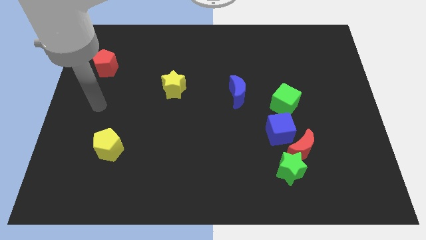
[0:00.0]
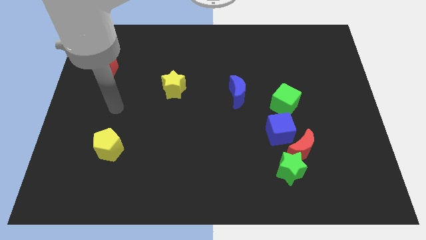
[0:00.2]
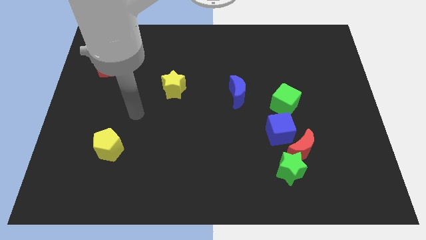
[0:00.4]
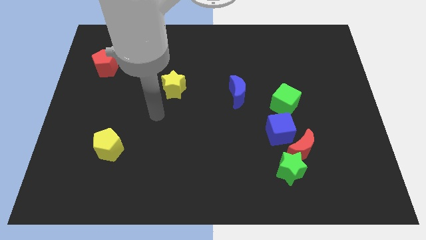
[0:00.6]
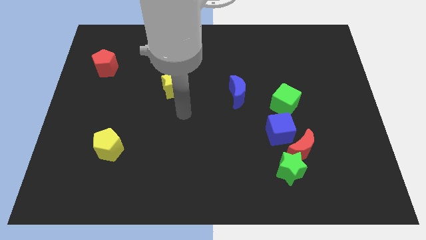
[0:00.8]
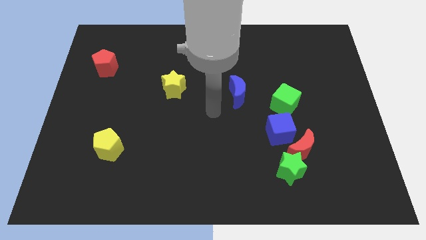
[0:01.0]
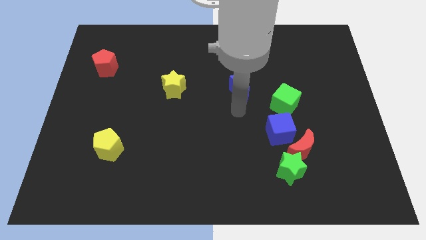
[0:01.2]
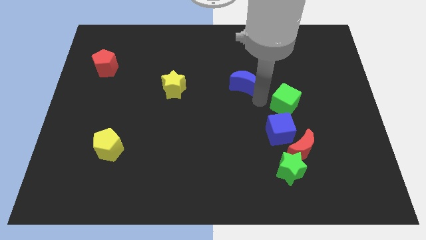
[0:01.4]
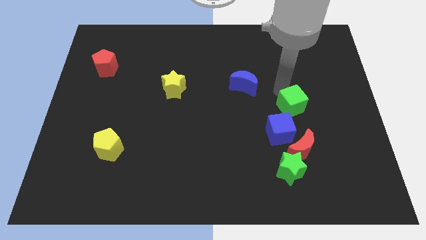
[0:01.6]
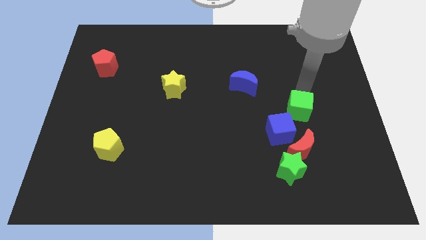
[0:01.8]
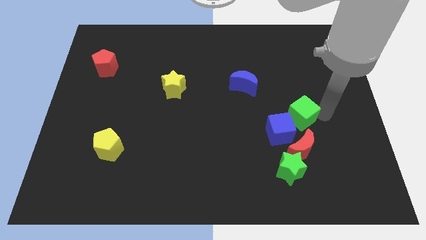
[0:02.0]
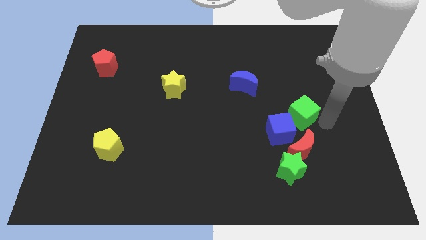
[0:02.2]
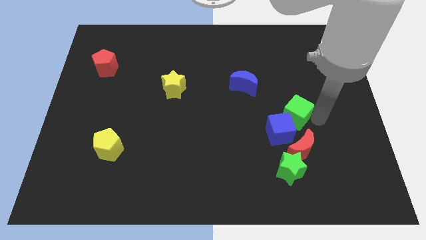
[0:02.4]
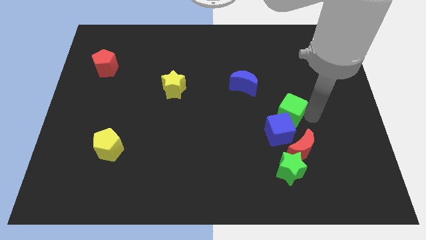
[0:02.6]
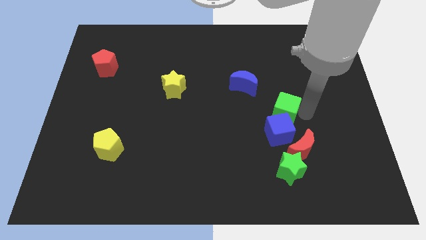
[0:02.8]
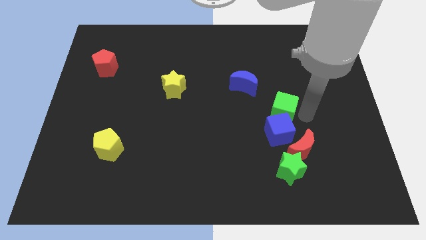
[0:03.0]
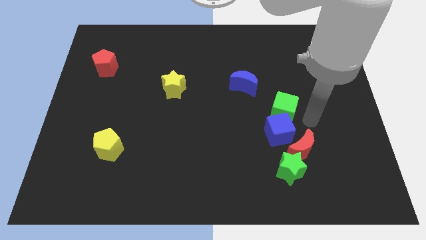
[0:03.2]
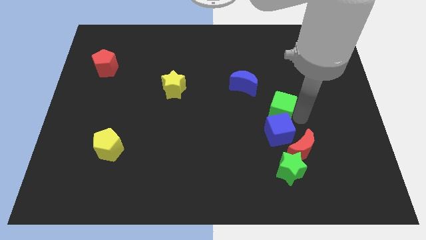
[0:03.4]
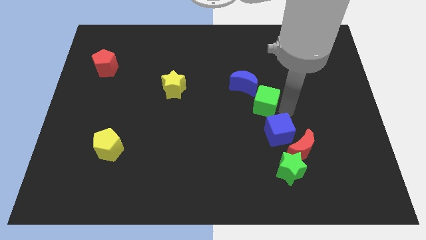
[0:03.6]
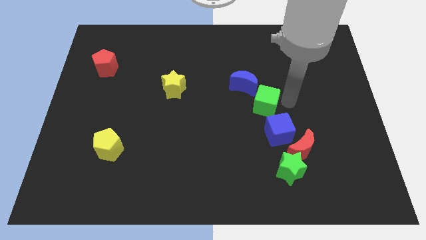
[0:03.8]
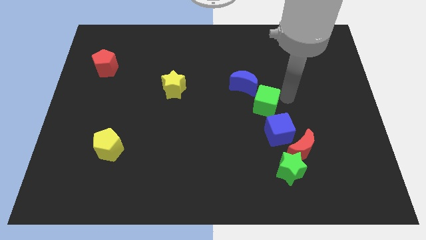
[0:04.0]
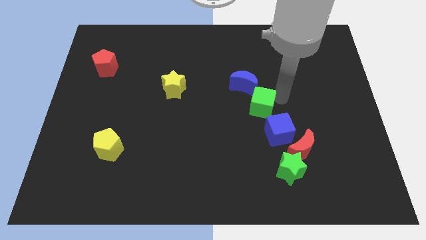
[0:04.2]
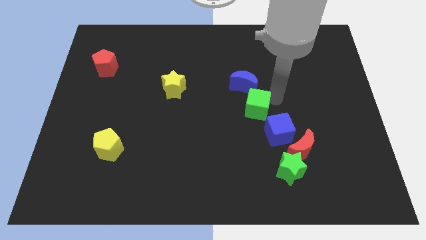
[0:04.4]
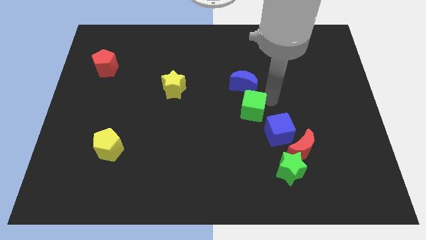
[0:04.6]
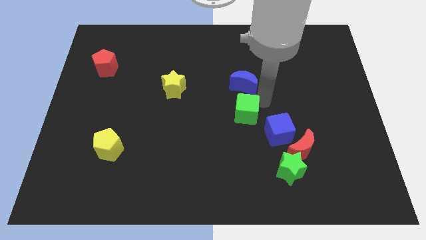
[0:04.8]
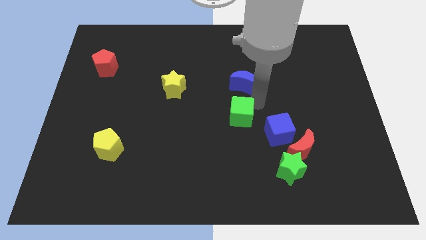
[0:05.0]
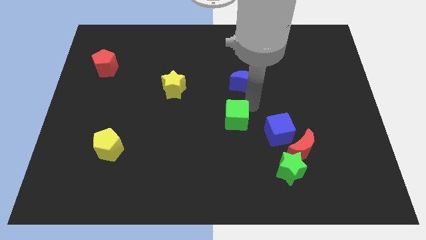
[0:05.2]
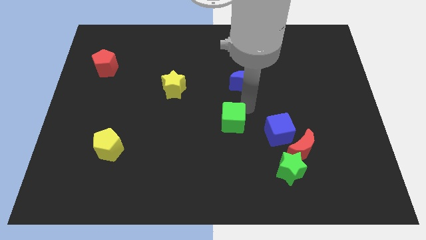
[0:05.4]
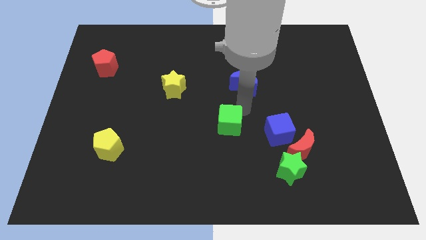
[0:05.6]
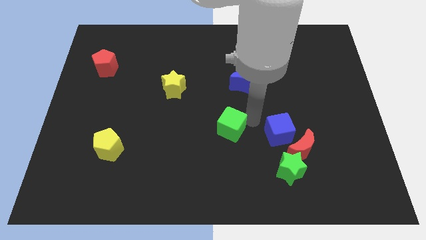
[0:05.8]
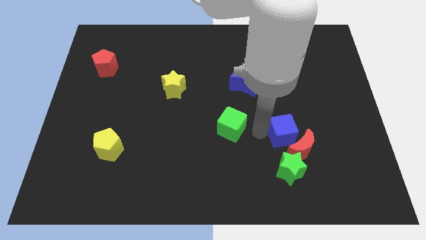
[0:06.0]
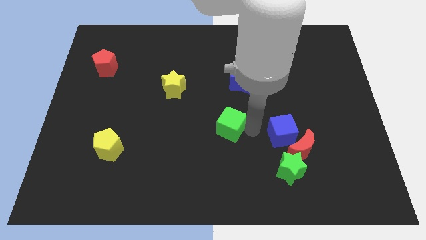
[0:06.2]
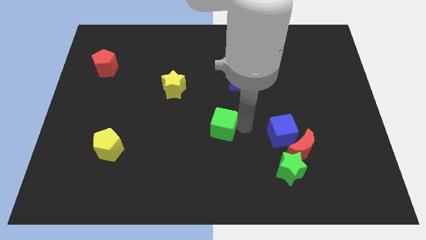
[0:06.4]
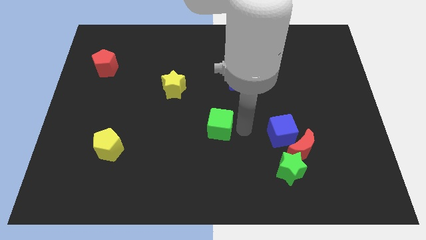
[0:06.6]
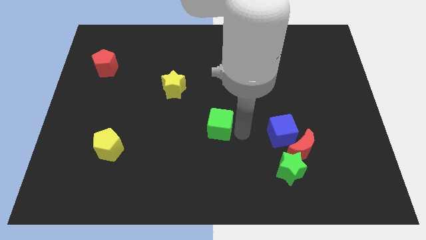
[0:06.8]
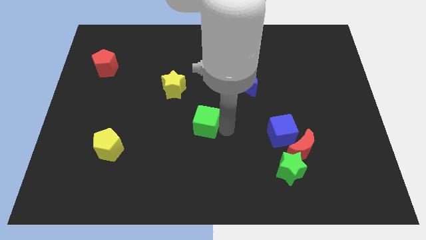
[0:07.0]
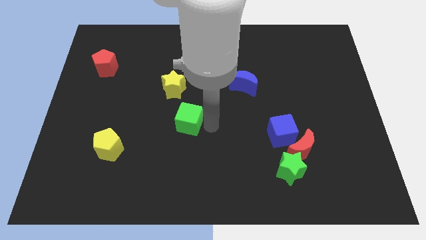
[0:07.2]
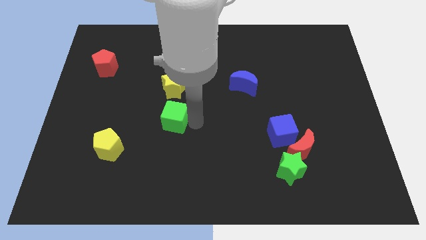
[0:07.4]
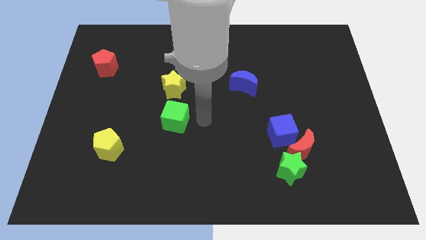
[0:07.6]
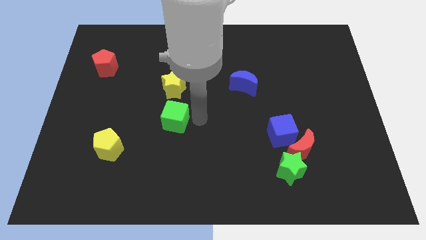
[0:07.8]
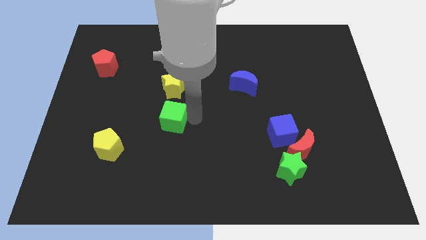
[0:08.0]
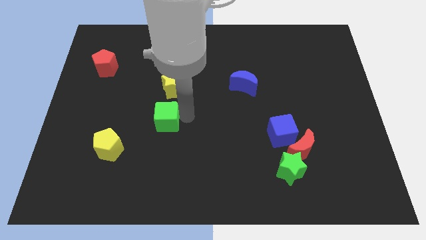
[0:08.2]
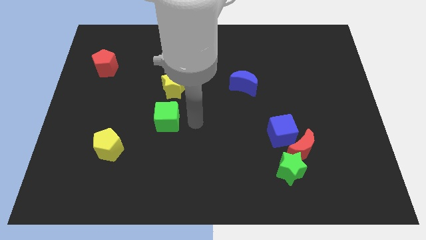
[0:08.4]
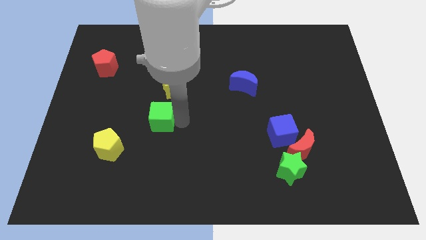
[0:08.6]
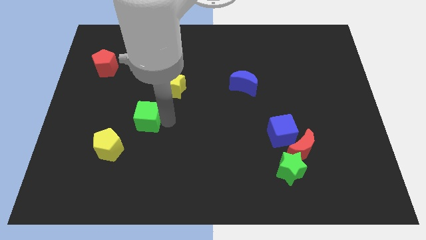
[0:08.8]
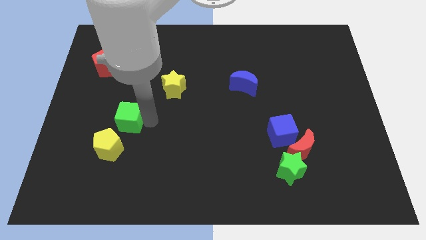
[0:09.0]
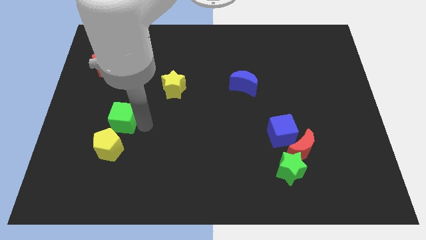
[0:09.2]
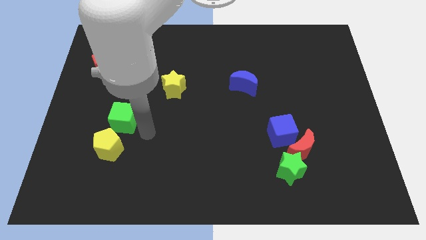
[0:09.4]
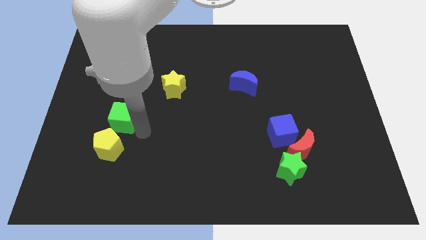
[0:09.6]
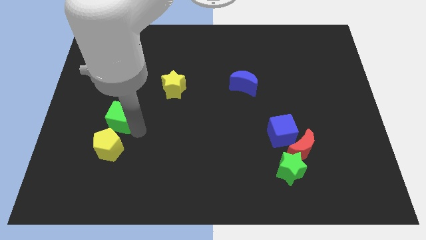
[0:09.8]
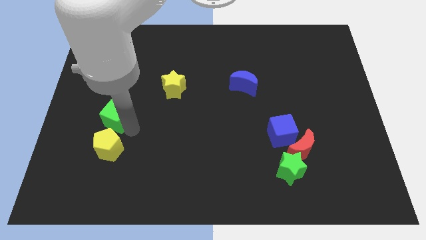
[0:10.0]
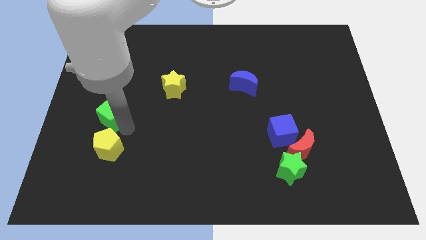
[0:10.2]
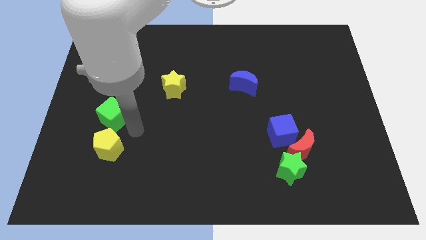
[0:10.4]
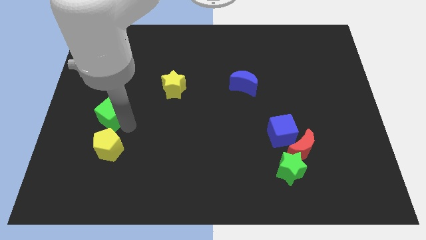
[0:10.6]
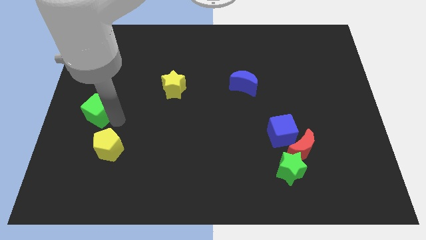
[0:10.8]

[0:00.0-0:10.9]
push the green cube to the center left

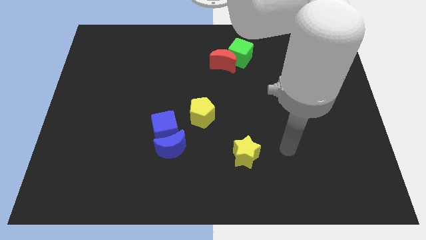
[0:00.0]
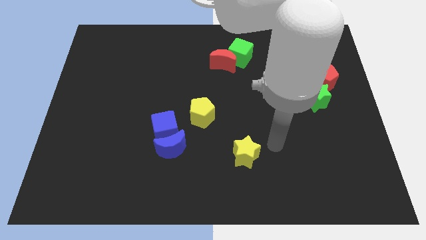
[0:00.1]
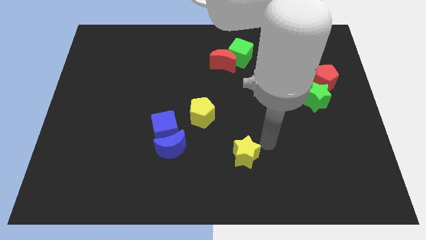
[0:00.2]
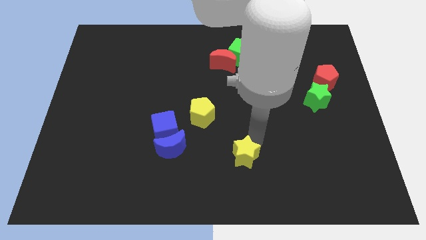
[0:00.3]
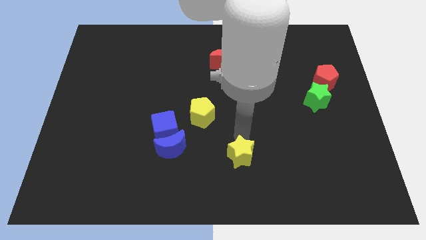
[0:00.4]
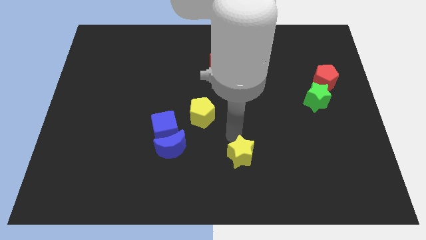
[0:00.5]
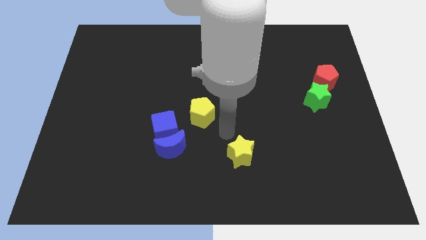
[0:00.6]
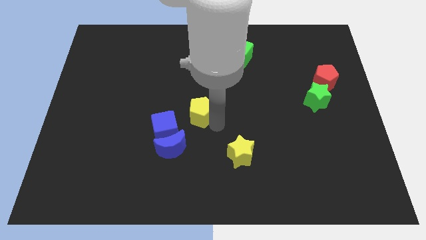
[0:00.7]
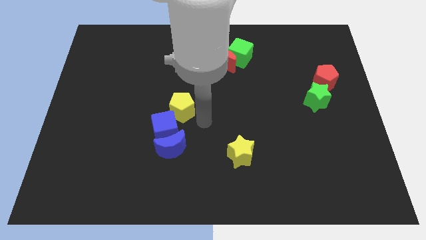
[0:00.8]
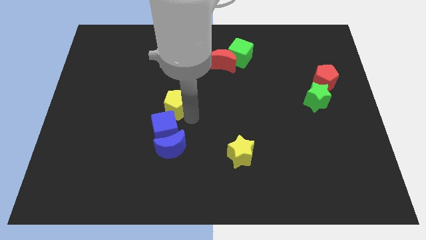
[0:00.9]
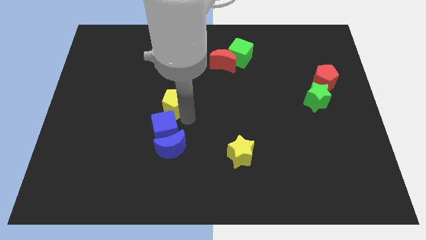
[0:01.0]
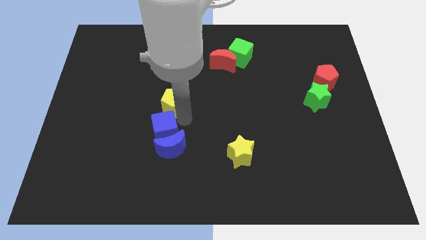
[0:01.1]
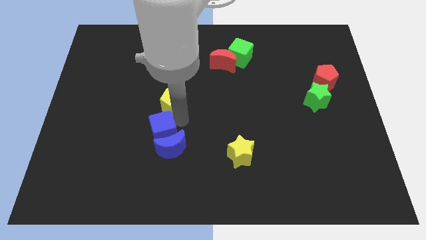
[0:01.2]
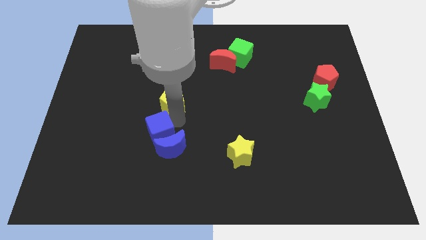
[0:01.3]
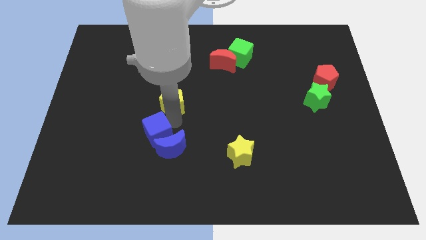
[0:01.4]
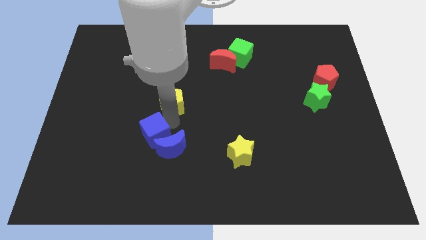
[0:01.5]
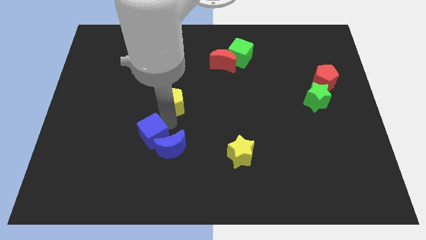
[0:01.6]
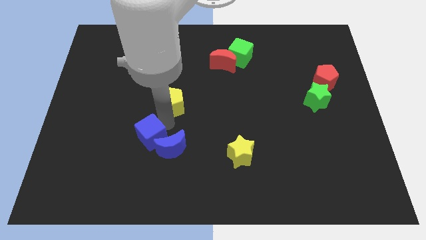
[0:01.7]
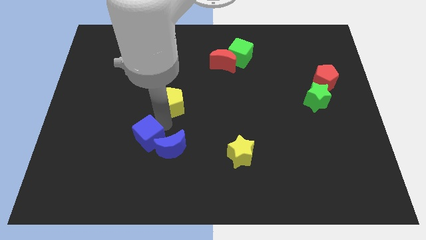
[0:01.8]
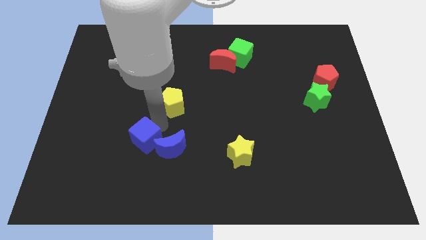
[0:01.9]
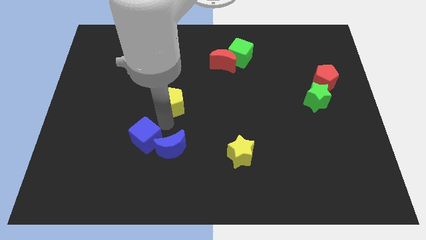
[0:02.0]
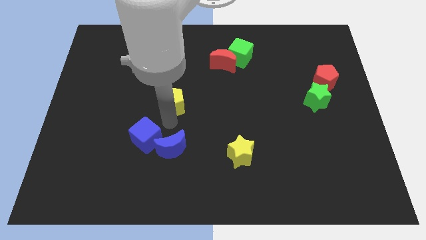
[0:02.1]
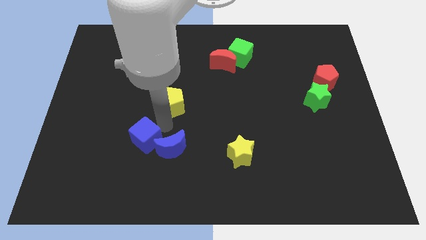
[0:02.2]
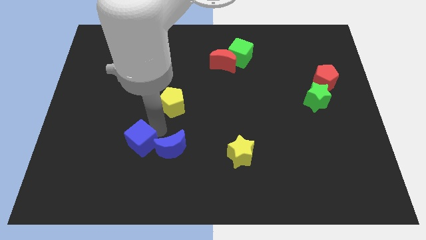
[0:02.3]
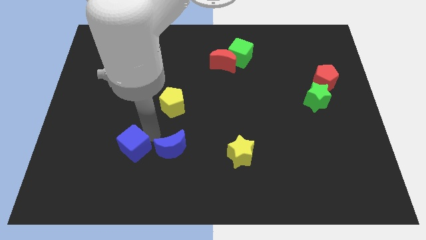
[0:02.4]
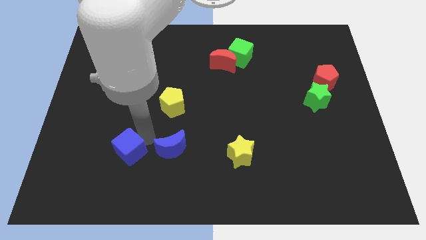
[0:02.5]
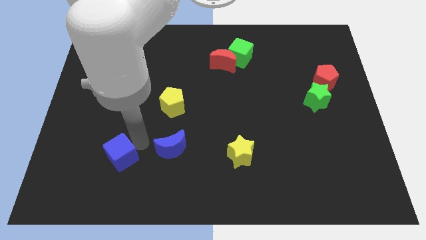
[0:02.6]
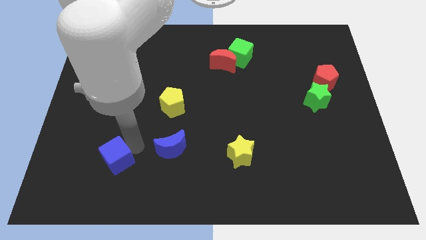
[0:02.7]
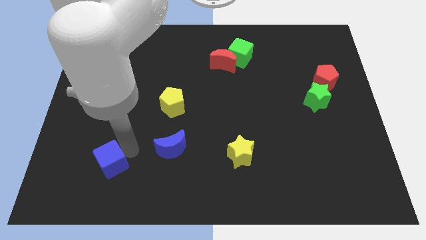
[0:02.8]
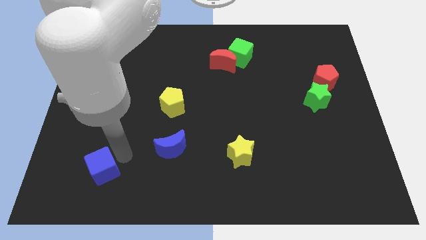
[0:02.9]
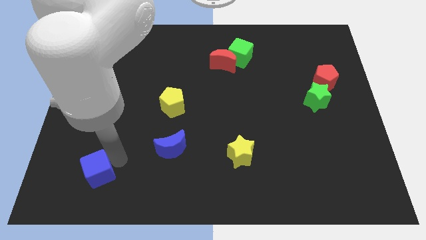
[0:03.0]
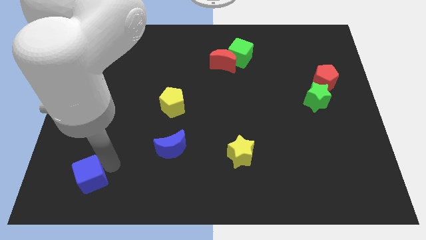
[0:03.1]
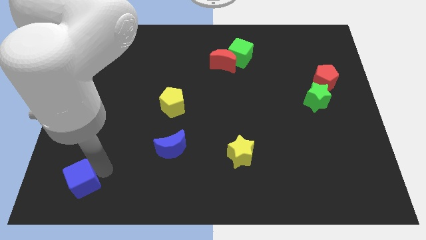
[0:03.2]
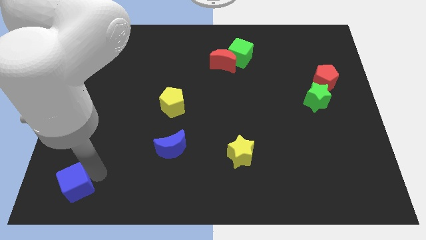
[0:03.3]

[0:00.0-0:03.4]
push the blue cube to the bottom left
